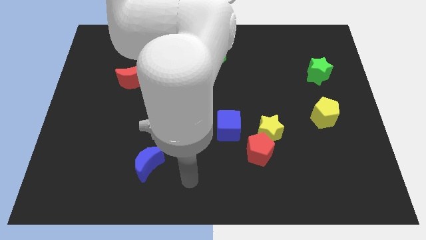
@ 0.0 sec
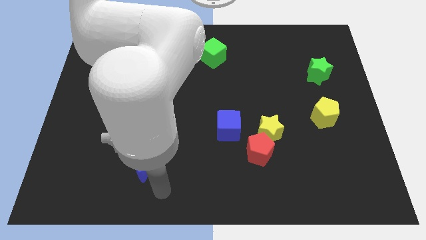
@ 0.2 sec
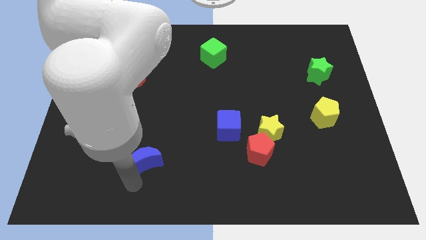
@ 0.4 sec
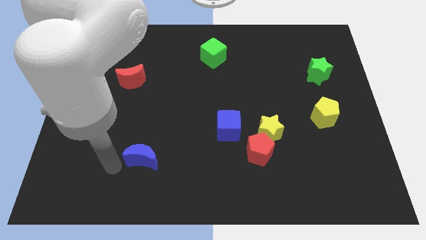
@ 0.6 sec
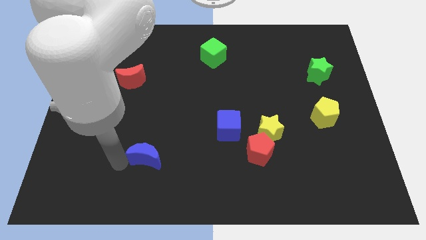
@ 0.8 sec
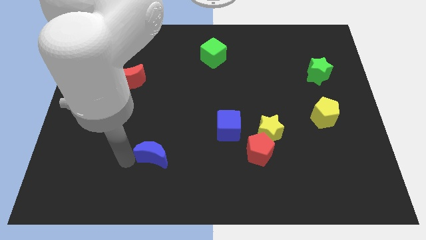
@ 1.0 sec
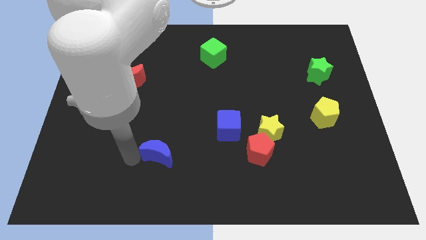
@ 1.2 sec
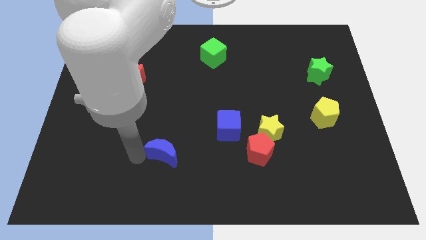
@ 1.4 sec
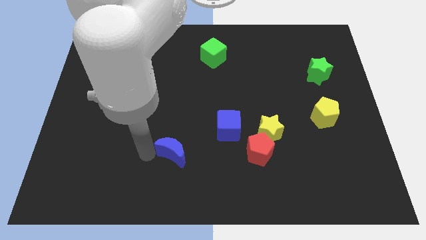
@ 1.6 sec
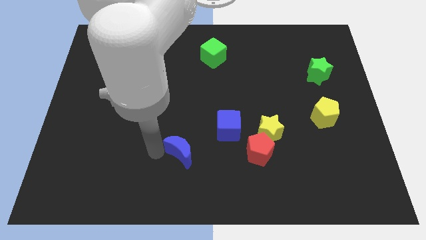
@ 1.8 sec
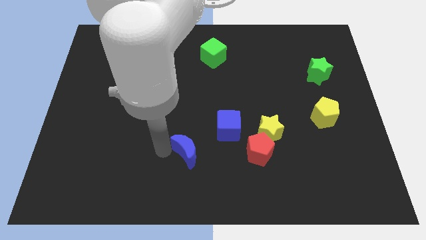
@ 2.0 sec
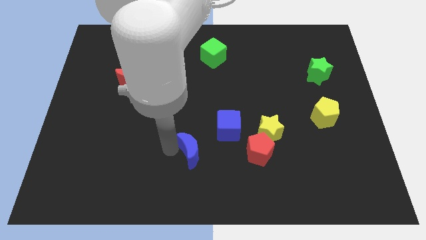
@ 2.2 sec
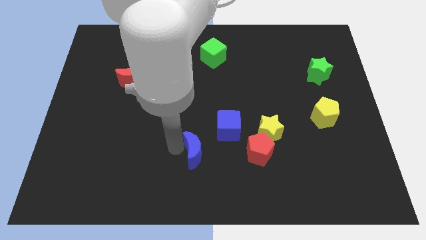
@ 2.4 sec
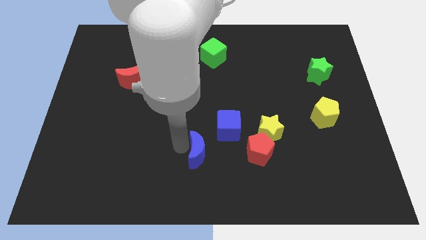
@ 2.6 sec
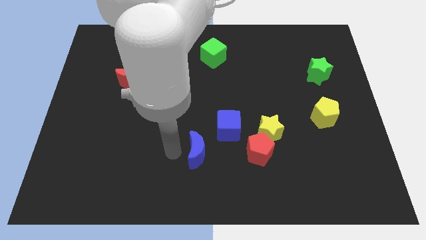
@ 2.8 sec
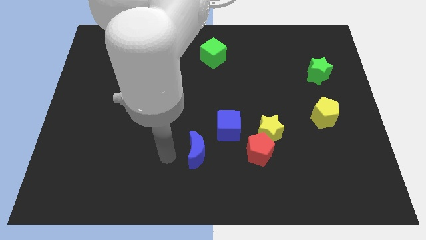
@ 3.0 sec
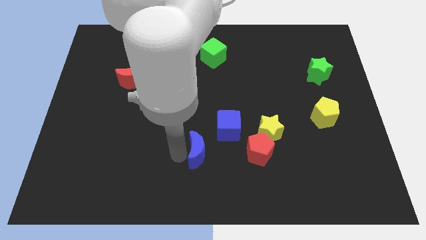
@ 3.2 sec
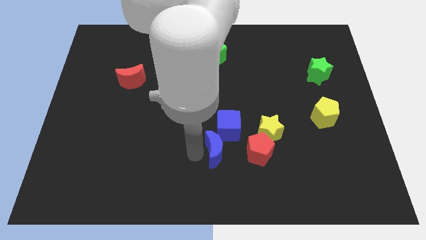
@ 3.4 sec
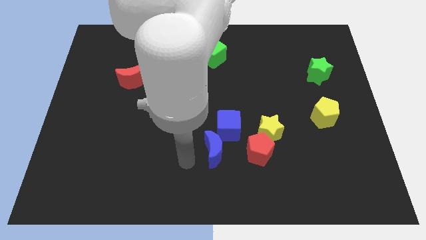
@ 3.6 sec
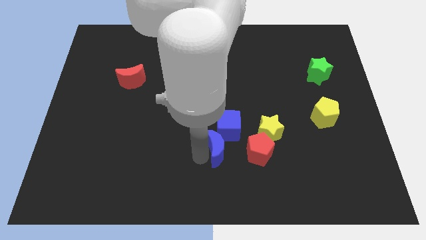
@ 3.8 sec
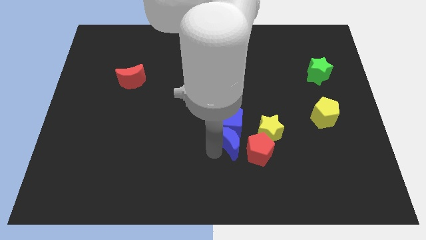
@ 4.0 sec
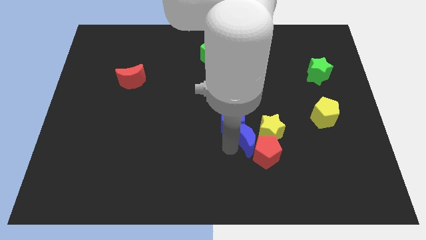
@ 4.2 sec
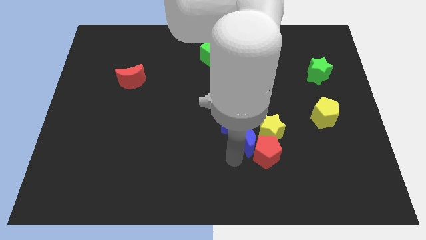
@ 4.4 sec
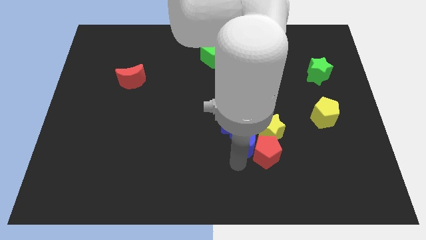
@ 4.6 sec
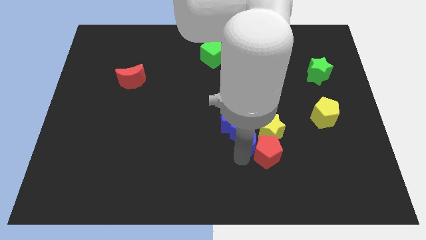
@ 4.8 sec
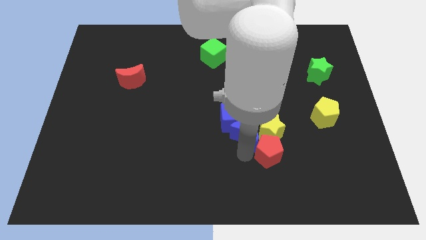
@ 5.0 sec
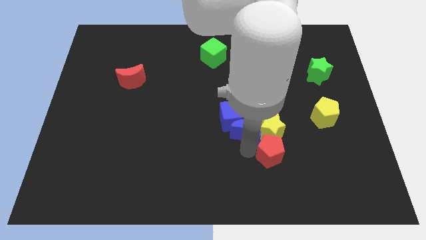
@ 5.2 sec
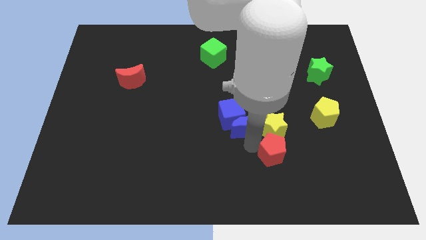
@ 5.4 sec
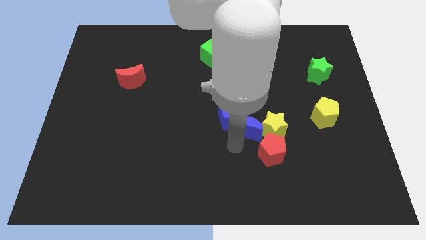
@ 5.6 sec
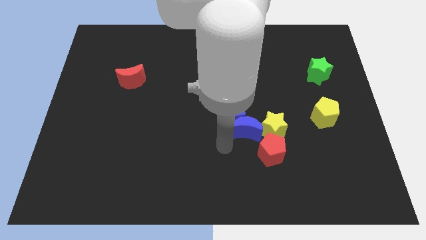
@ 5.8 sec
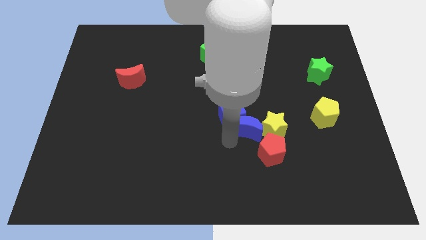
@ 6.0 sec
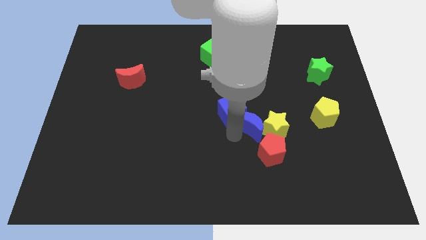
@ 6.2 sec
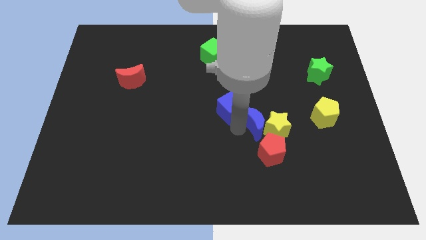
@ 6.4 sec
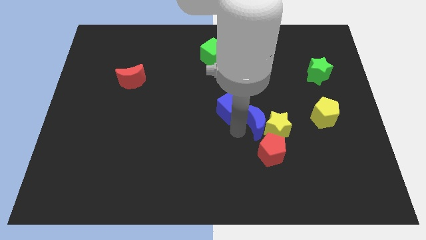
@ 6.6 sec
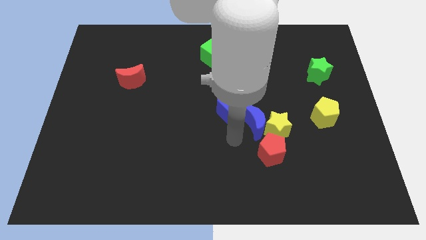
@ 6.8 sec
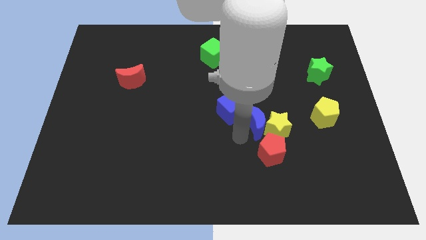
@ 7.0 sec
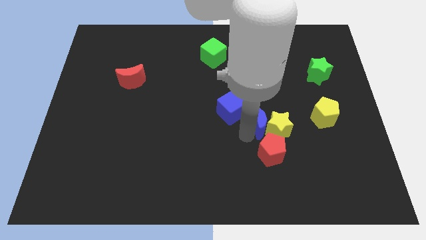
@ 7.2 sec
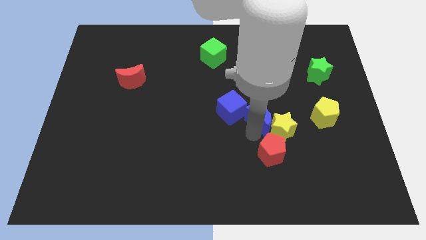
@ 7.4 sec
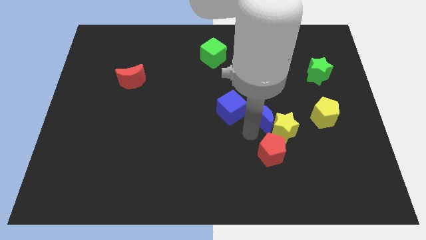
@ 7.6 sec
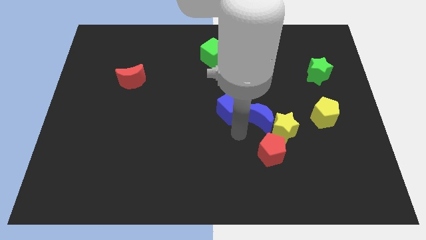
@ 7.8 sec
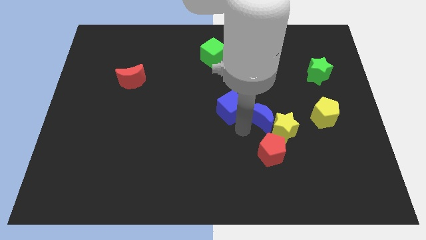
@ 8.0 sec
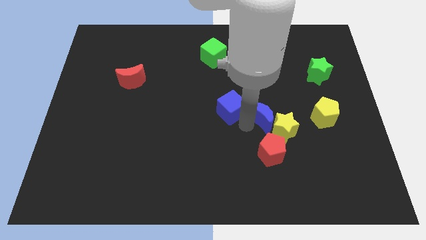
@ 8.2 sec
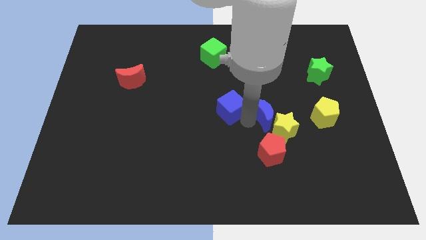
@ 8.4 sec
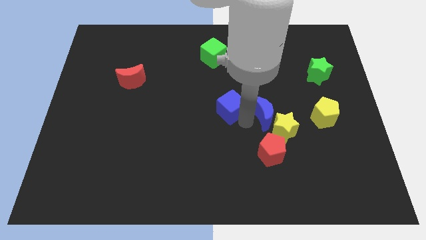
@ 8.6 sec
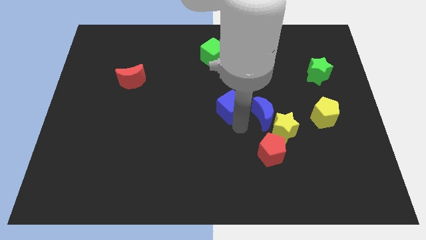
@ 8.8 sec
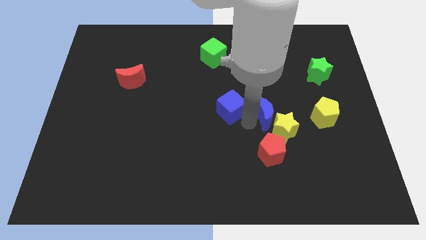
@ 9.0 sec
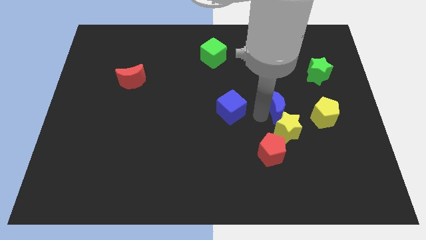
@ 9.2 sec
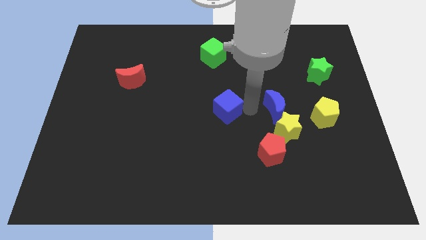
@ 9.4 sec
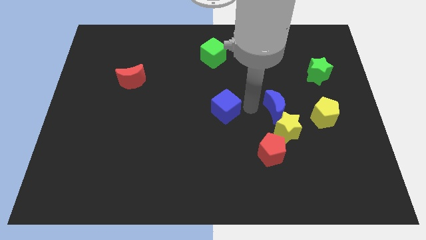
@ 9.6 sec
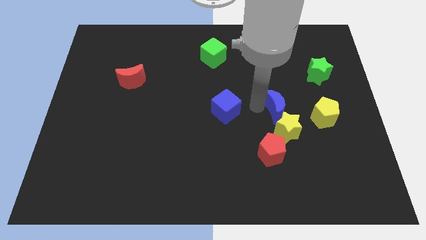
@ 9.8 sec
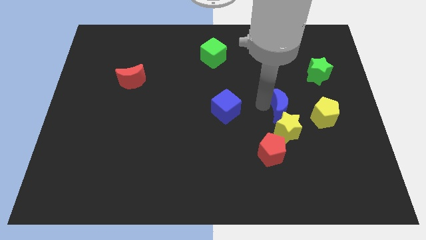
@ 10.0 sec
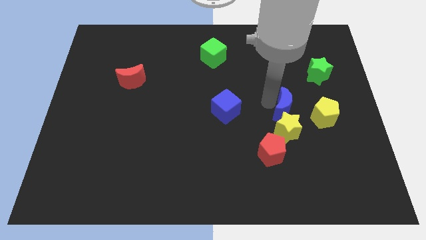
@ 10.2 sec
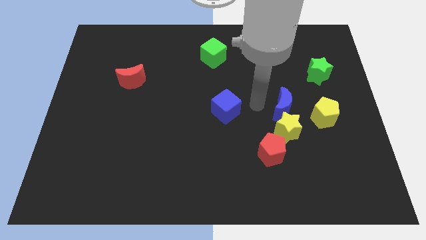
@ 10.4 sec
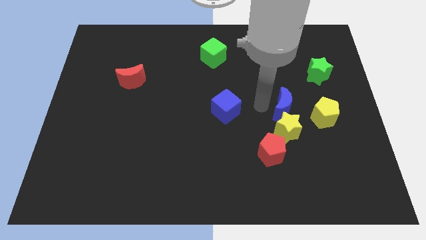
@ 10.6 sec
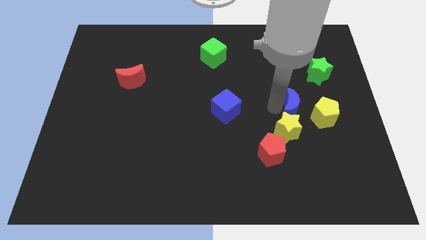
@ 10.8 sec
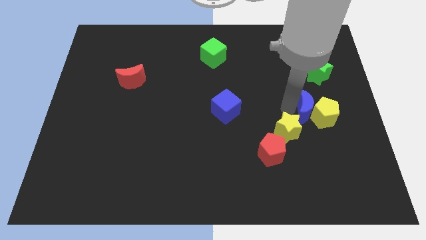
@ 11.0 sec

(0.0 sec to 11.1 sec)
move the blue moon to the yellow pentagon

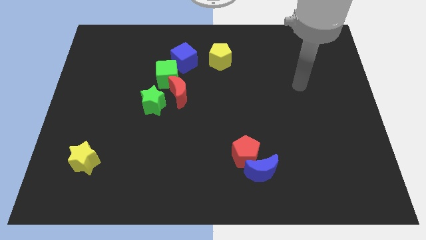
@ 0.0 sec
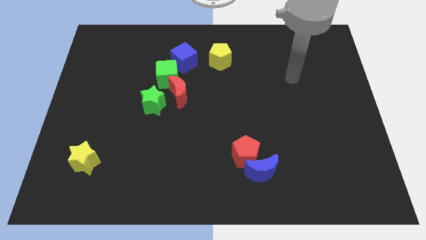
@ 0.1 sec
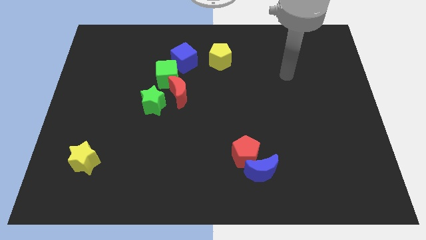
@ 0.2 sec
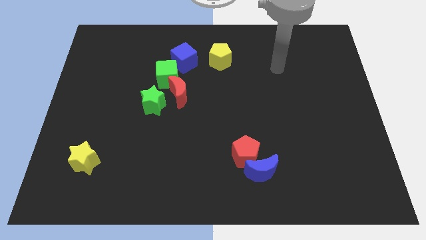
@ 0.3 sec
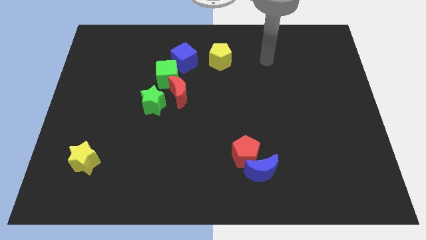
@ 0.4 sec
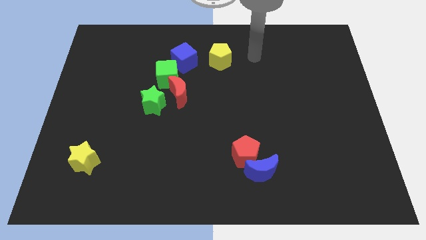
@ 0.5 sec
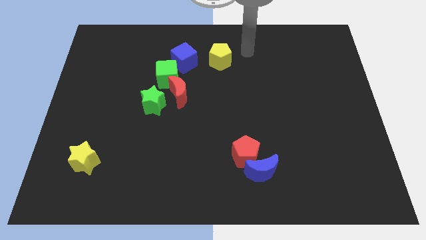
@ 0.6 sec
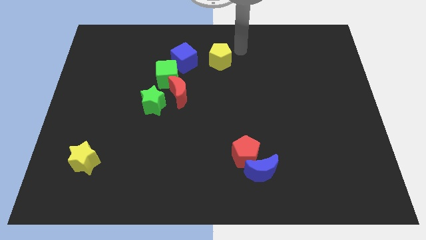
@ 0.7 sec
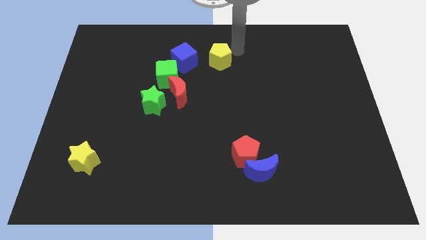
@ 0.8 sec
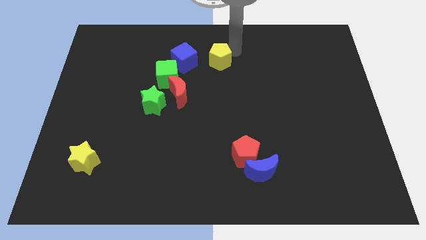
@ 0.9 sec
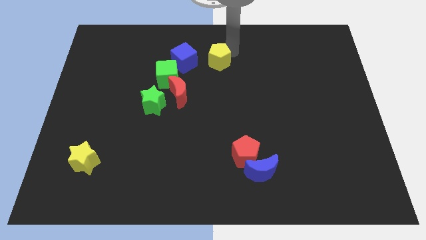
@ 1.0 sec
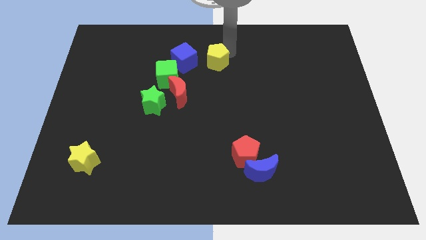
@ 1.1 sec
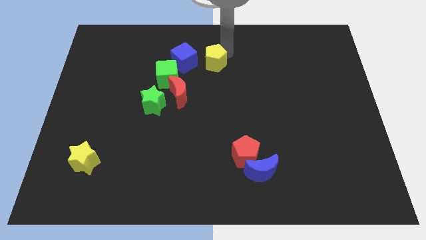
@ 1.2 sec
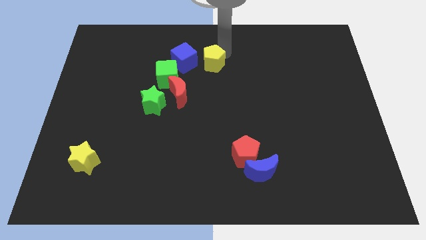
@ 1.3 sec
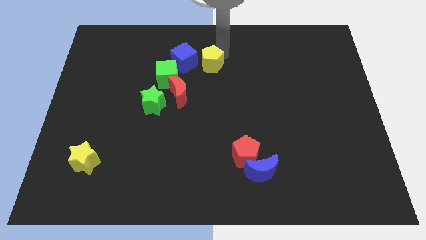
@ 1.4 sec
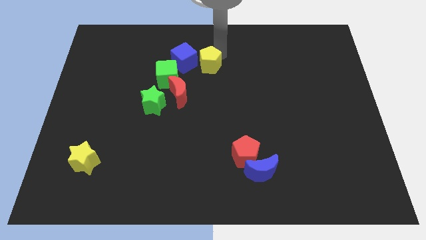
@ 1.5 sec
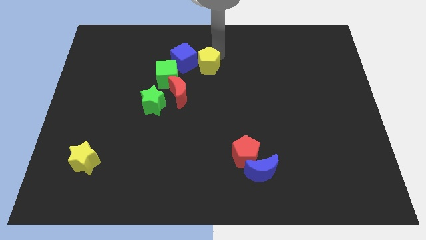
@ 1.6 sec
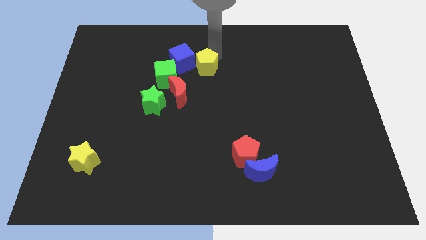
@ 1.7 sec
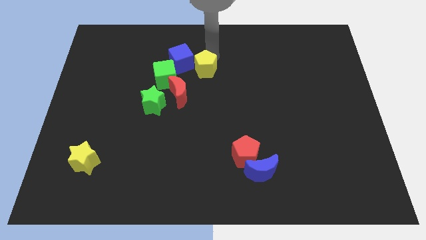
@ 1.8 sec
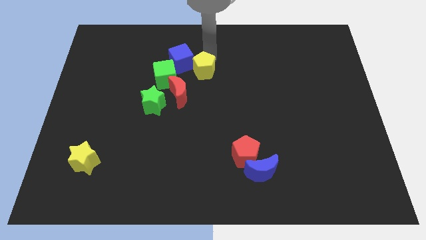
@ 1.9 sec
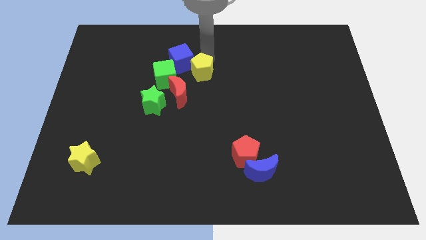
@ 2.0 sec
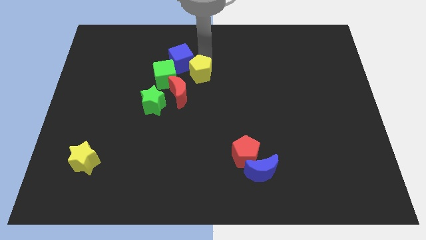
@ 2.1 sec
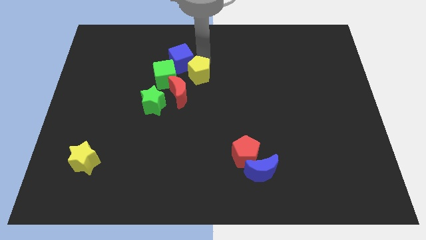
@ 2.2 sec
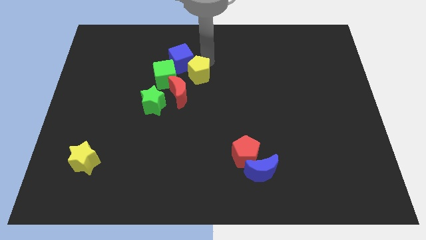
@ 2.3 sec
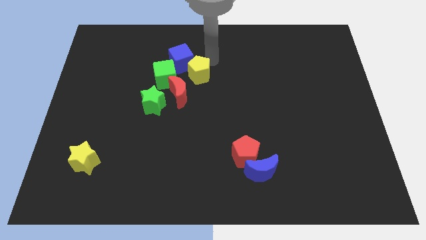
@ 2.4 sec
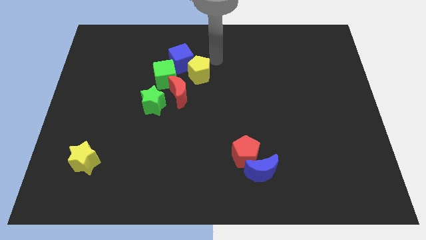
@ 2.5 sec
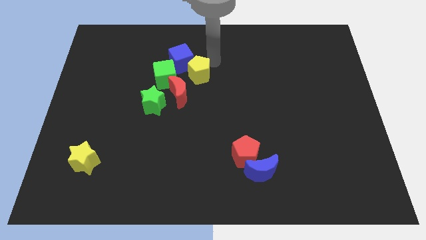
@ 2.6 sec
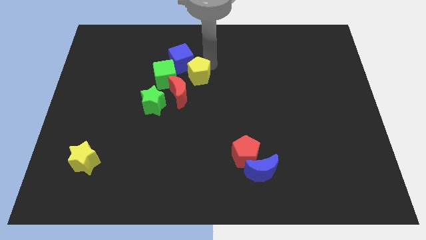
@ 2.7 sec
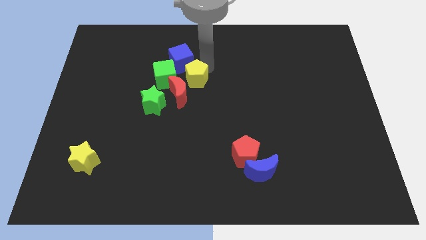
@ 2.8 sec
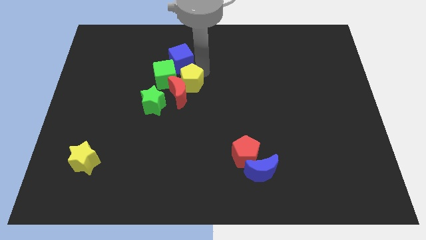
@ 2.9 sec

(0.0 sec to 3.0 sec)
push the yellow pentagon towards the red moon
